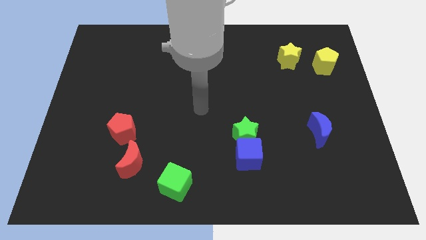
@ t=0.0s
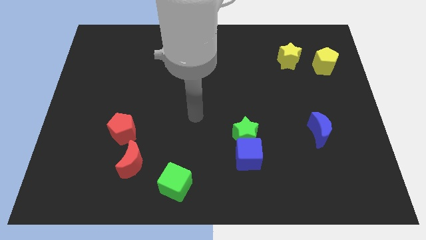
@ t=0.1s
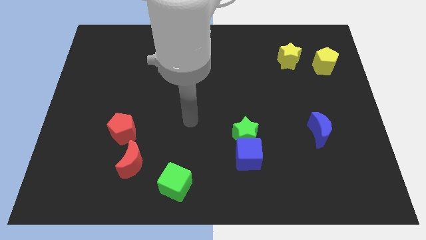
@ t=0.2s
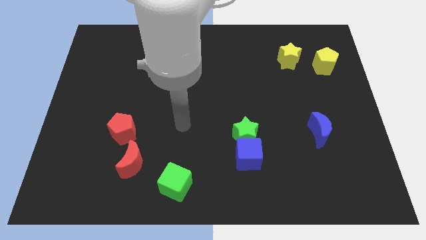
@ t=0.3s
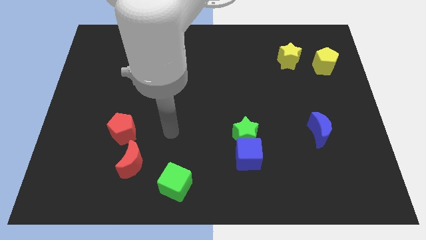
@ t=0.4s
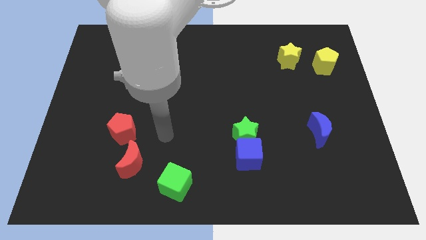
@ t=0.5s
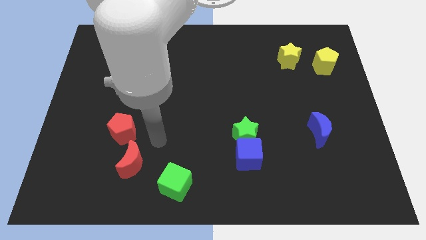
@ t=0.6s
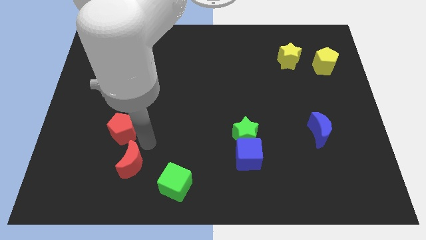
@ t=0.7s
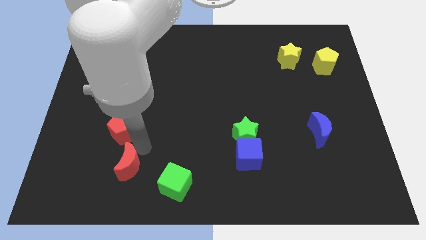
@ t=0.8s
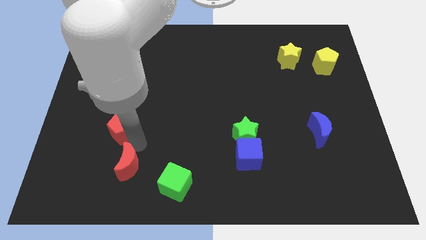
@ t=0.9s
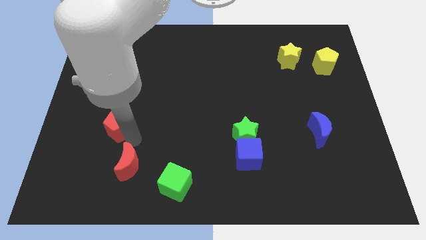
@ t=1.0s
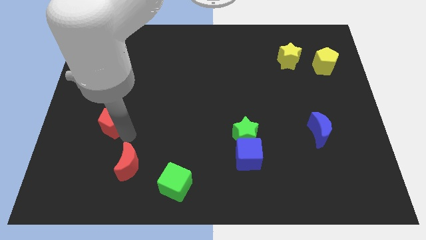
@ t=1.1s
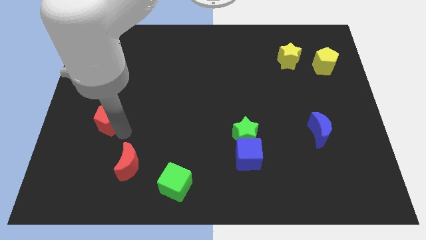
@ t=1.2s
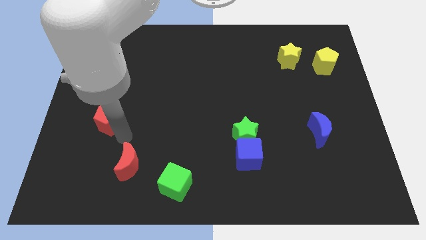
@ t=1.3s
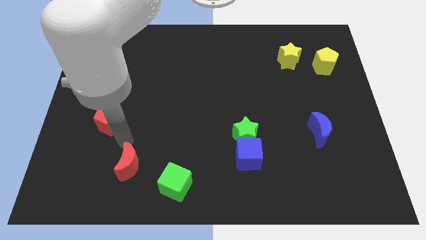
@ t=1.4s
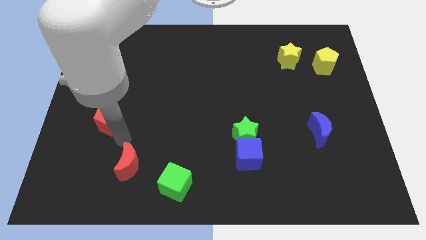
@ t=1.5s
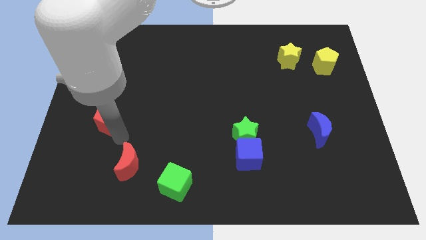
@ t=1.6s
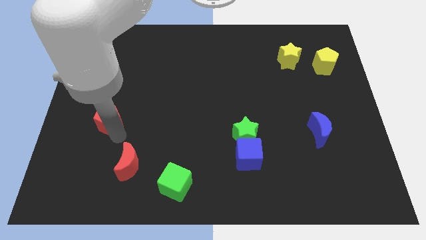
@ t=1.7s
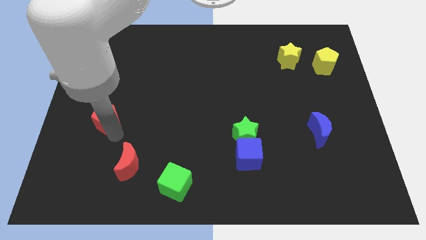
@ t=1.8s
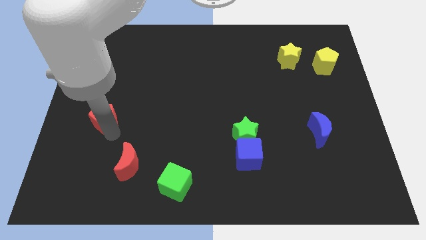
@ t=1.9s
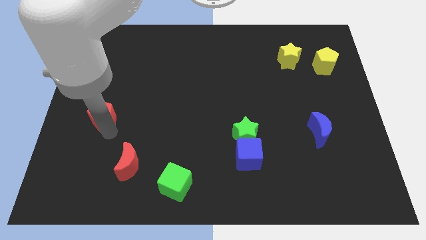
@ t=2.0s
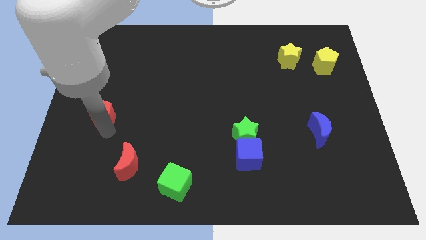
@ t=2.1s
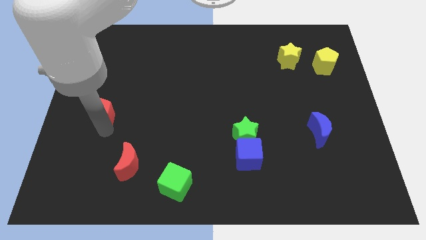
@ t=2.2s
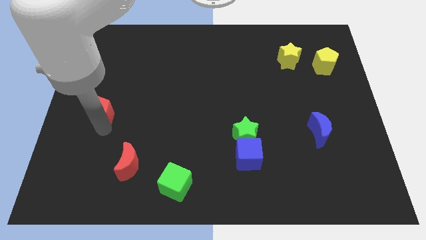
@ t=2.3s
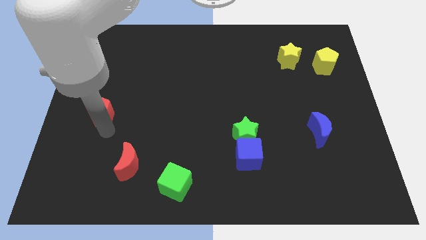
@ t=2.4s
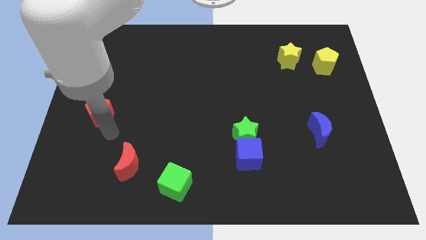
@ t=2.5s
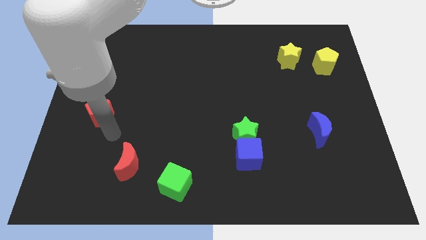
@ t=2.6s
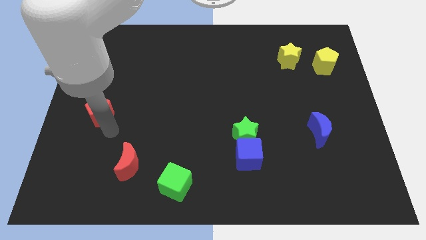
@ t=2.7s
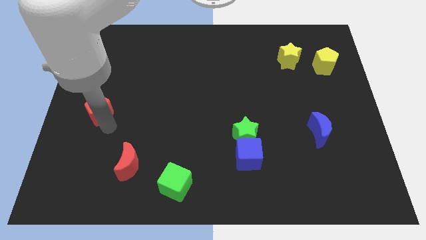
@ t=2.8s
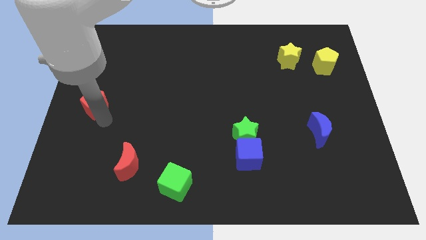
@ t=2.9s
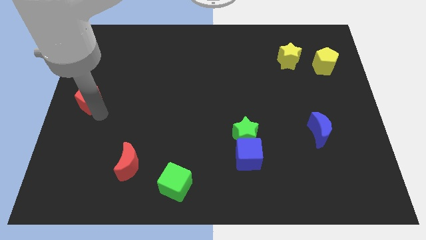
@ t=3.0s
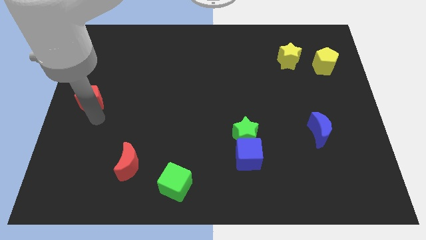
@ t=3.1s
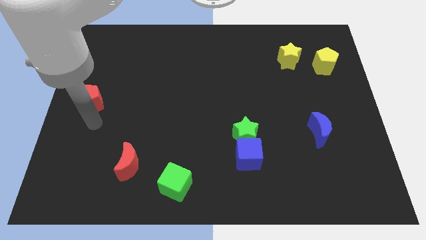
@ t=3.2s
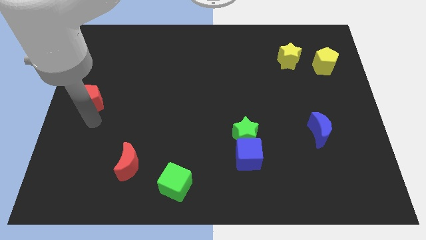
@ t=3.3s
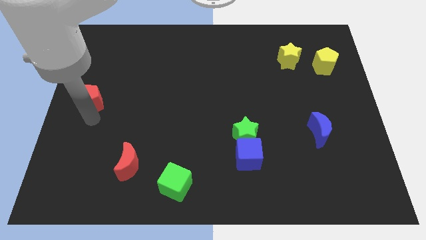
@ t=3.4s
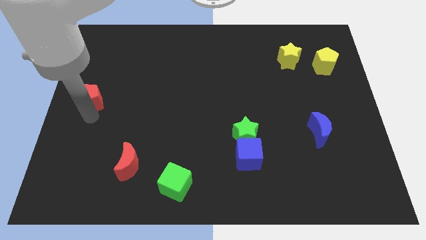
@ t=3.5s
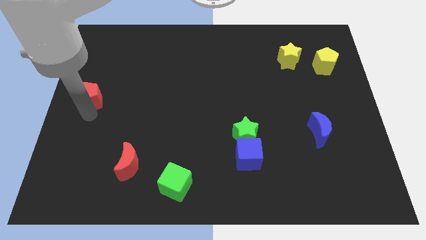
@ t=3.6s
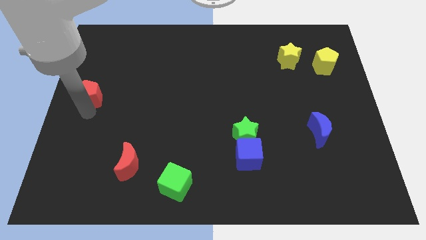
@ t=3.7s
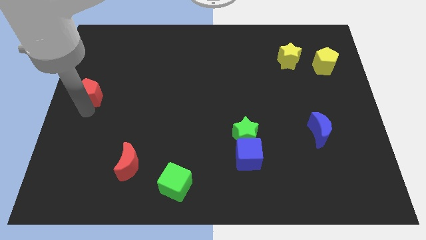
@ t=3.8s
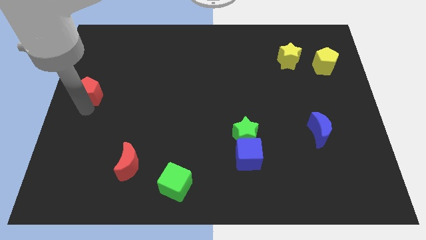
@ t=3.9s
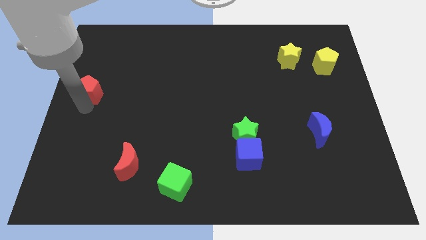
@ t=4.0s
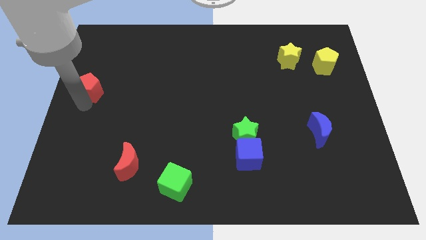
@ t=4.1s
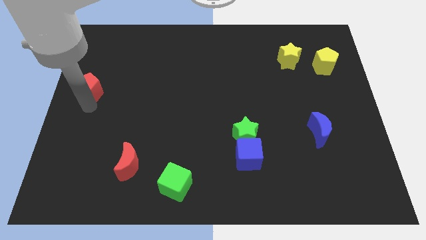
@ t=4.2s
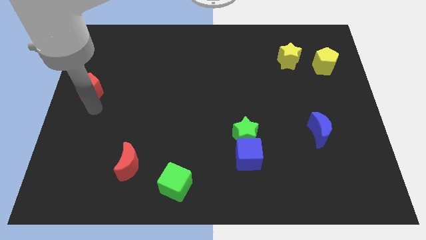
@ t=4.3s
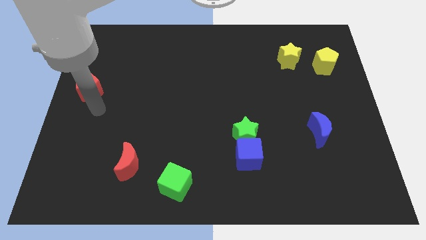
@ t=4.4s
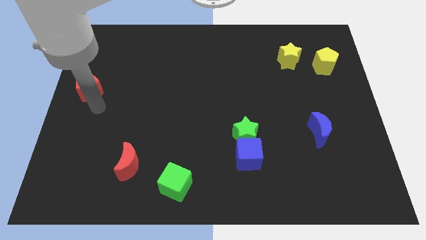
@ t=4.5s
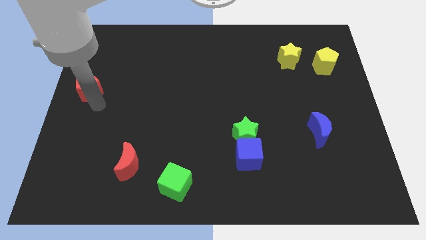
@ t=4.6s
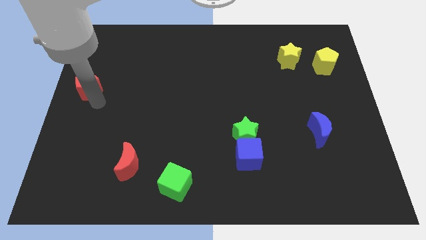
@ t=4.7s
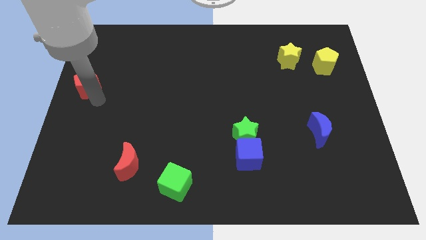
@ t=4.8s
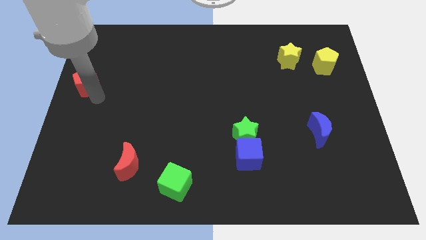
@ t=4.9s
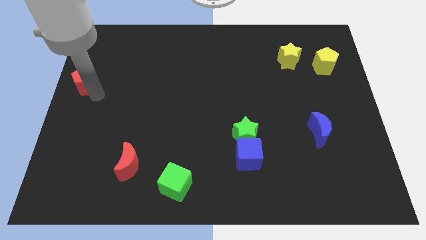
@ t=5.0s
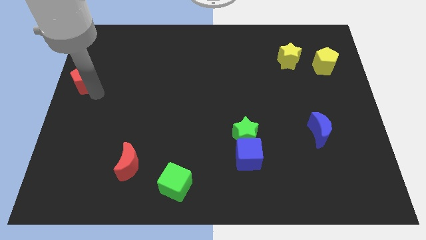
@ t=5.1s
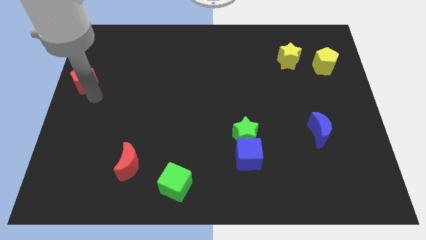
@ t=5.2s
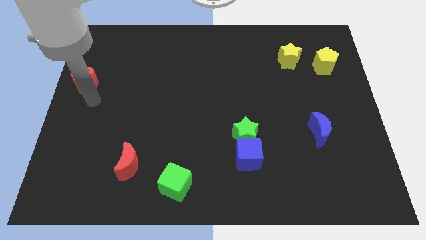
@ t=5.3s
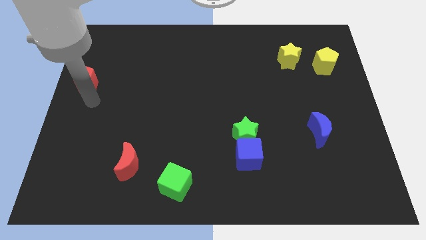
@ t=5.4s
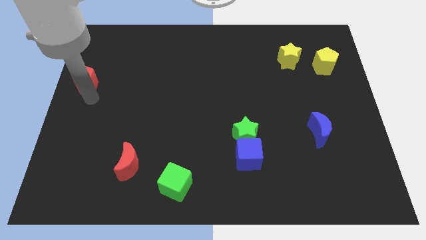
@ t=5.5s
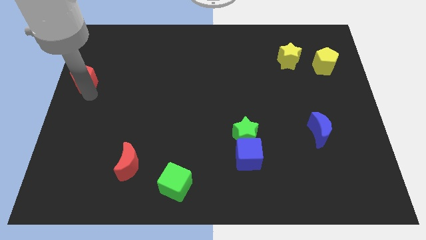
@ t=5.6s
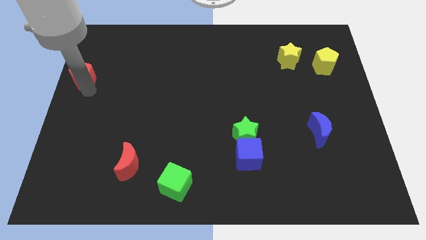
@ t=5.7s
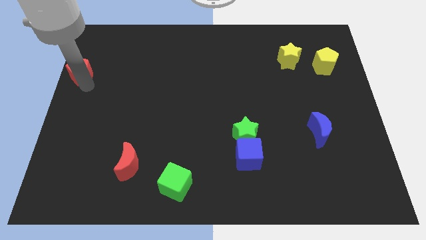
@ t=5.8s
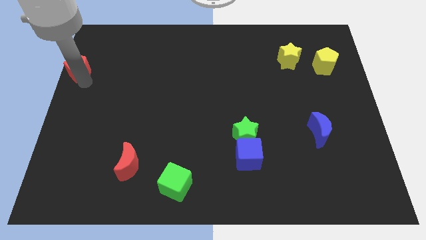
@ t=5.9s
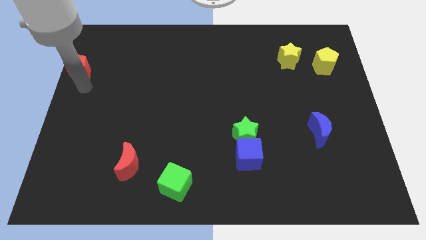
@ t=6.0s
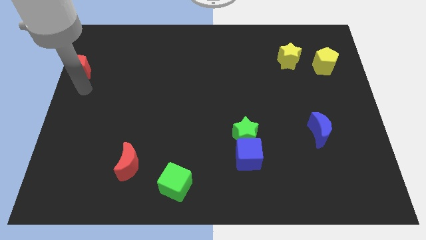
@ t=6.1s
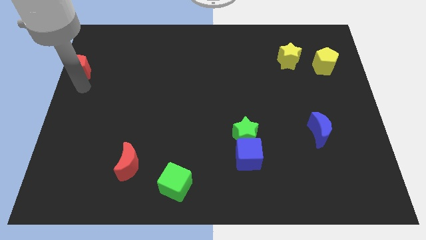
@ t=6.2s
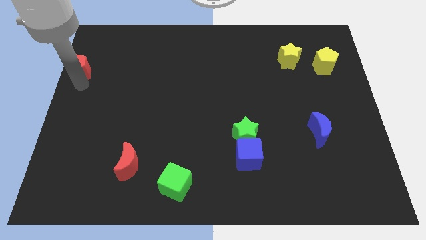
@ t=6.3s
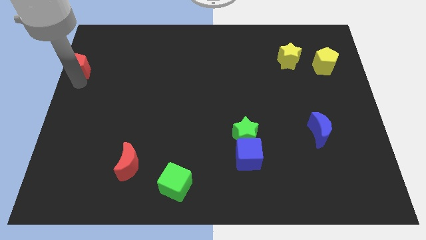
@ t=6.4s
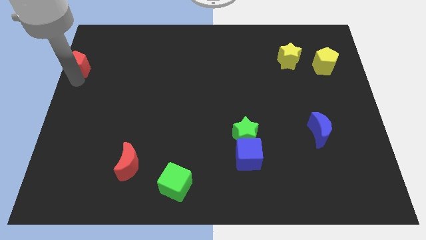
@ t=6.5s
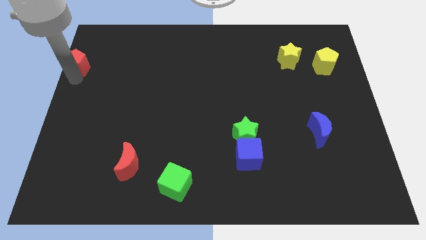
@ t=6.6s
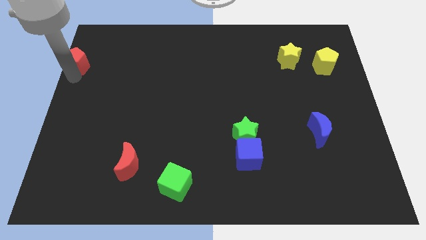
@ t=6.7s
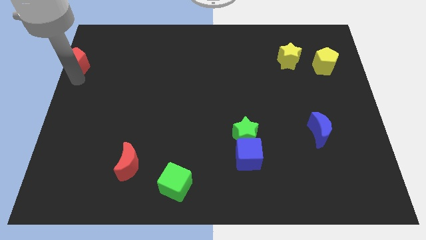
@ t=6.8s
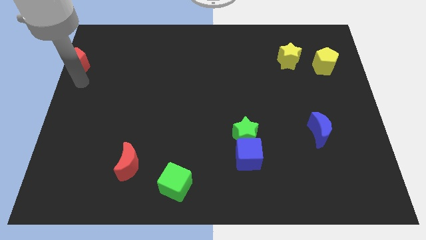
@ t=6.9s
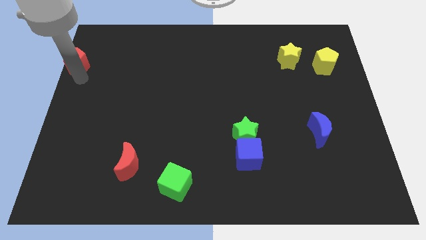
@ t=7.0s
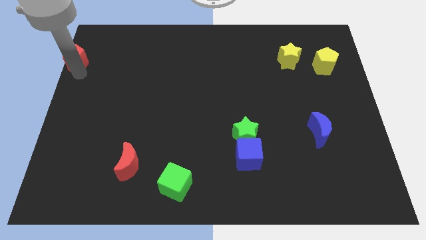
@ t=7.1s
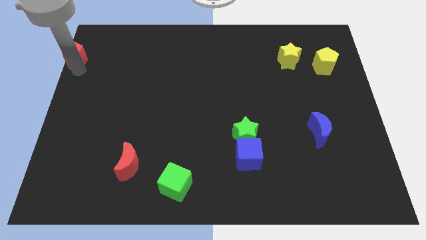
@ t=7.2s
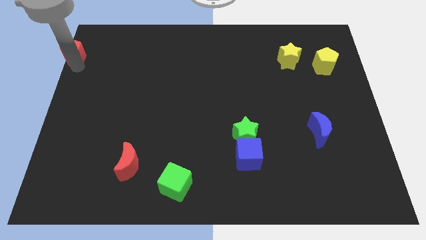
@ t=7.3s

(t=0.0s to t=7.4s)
slide the red pentagon to the top left corner
